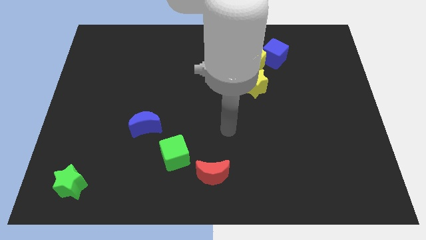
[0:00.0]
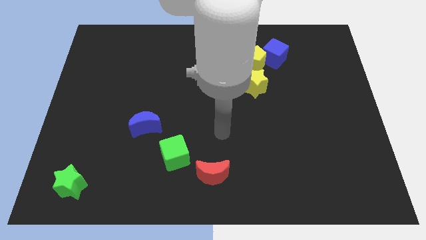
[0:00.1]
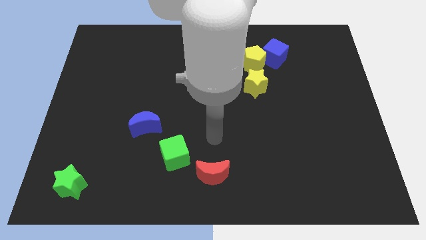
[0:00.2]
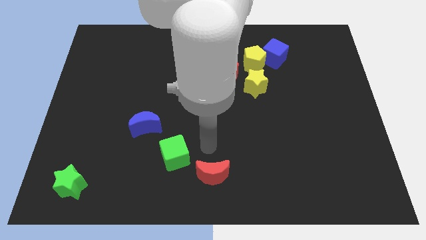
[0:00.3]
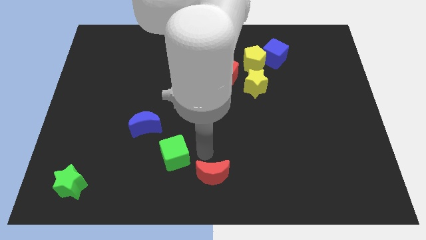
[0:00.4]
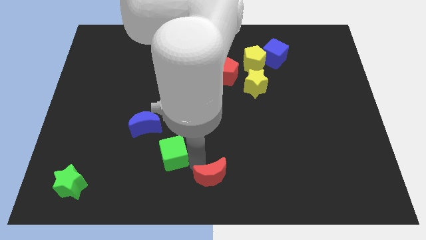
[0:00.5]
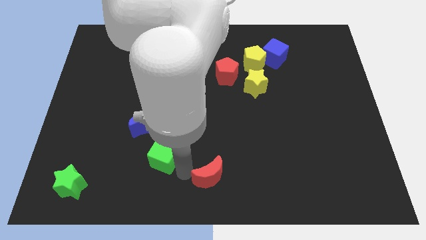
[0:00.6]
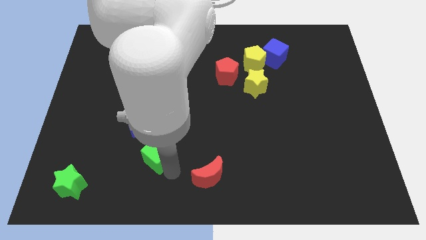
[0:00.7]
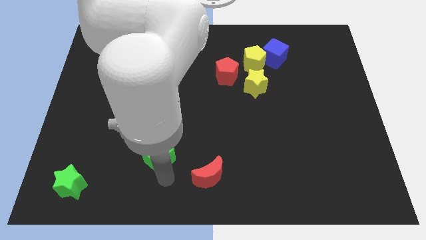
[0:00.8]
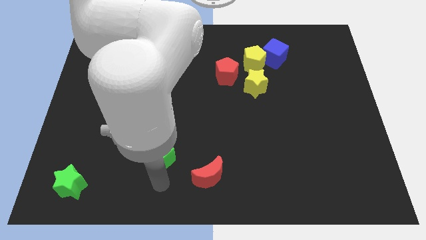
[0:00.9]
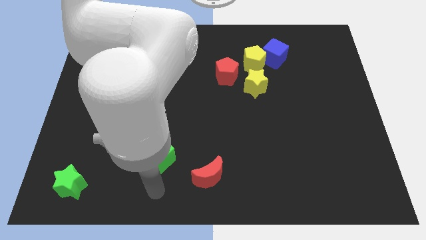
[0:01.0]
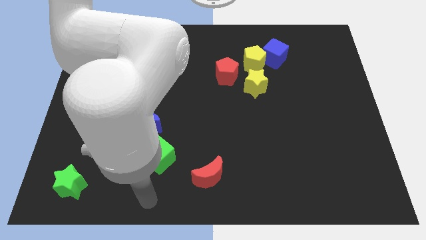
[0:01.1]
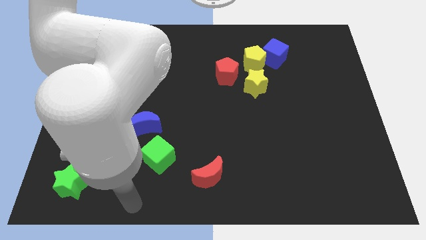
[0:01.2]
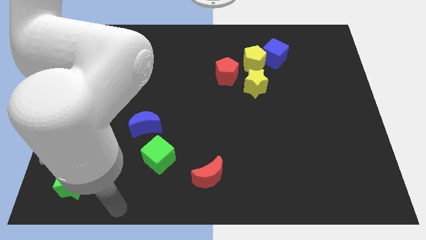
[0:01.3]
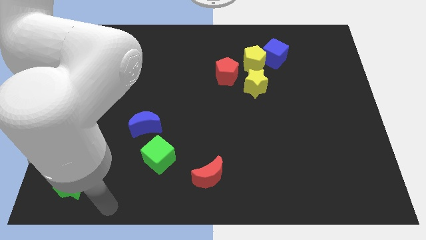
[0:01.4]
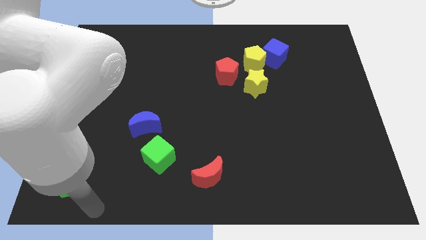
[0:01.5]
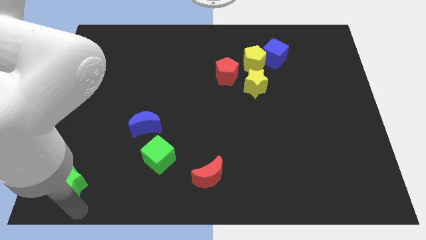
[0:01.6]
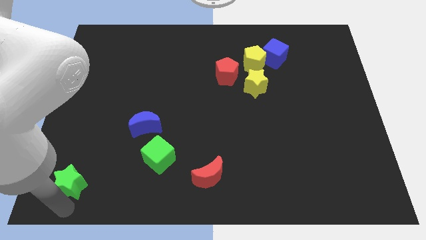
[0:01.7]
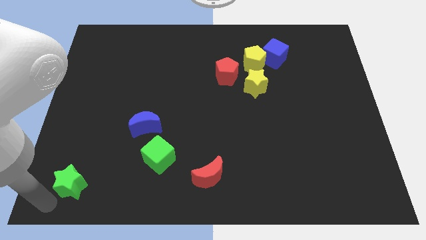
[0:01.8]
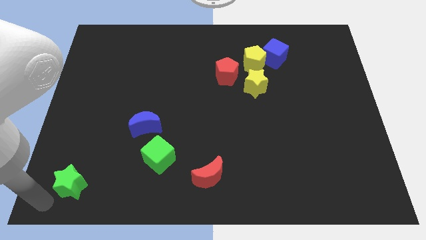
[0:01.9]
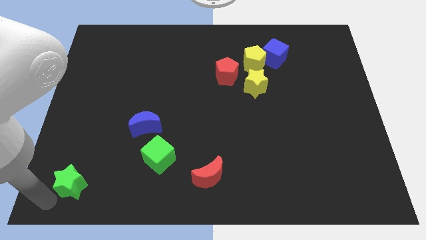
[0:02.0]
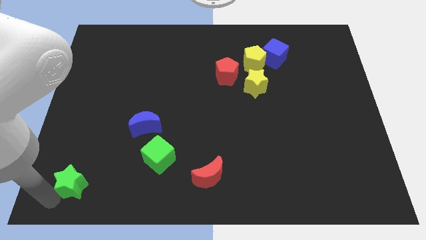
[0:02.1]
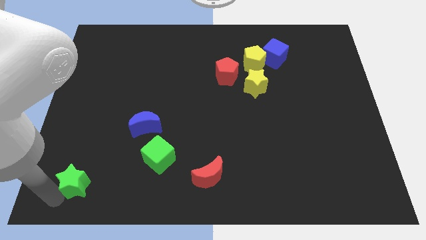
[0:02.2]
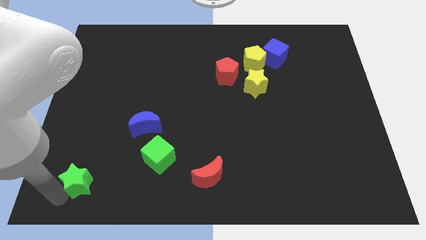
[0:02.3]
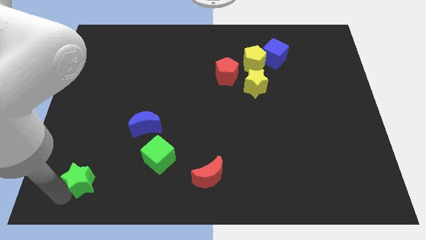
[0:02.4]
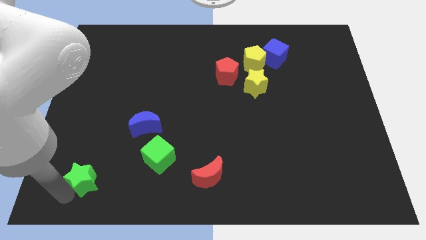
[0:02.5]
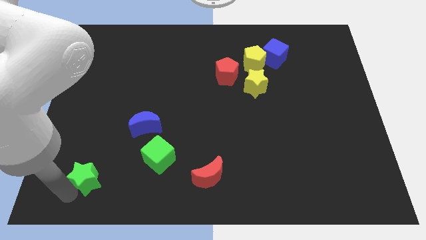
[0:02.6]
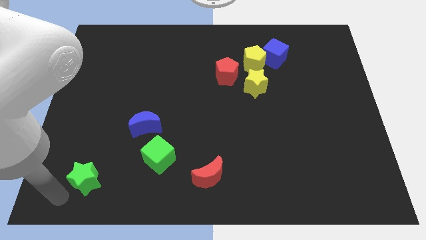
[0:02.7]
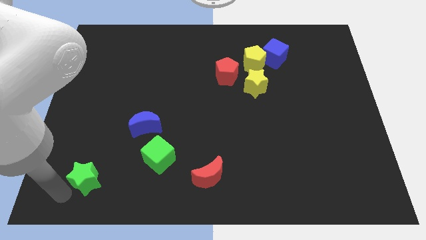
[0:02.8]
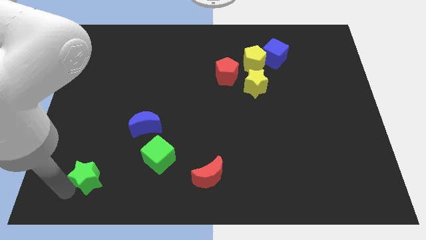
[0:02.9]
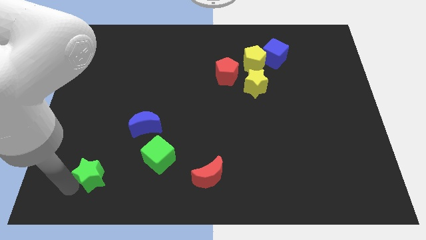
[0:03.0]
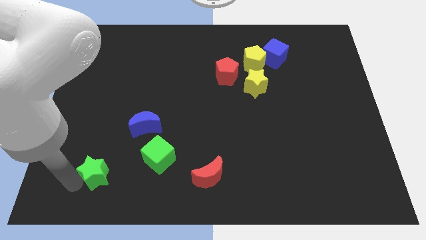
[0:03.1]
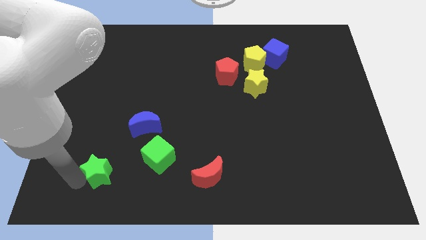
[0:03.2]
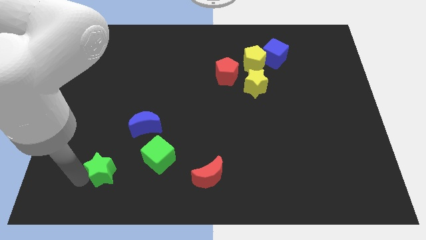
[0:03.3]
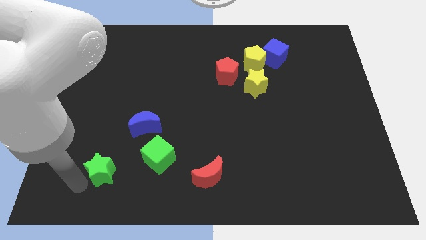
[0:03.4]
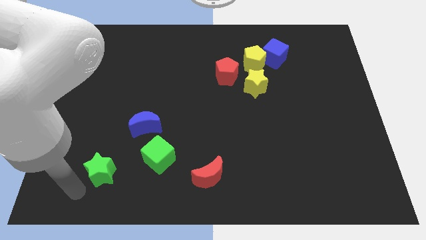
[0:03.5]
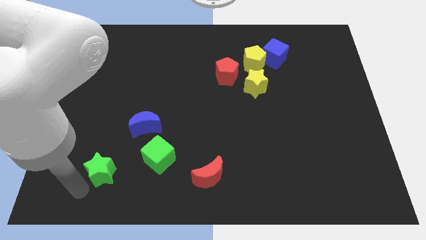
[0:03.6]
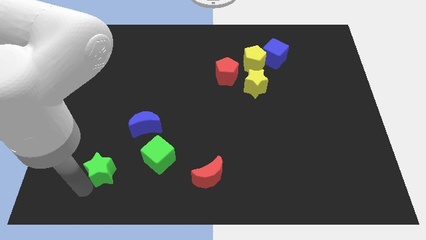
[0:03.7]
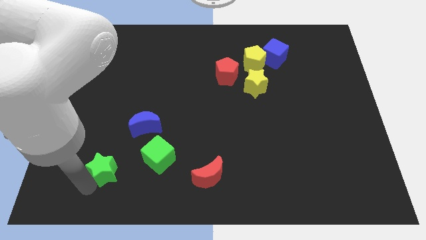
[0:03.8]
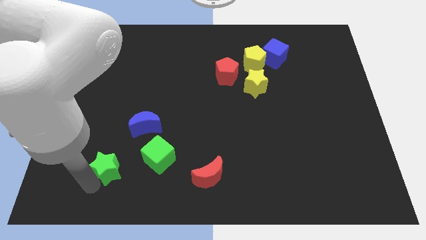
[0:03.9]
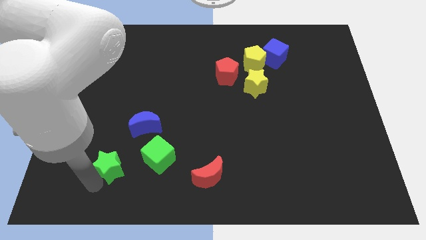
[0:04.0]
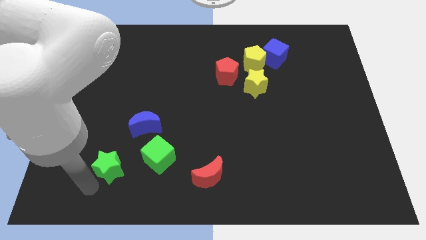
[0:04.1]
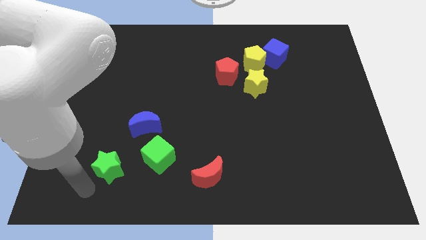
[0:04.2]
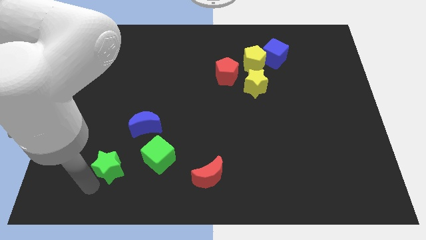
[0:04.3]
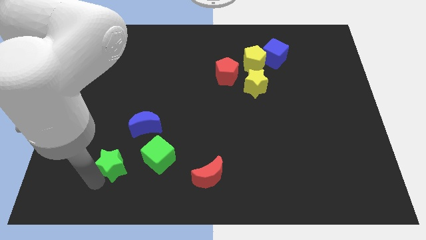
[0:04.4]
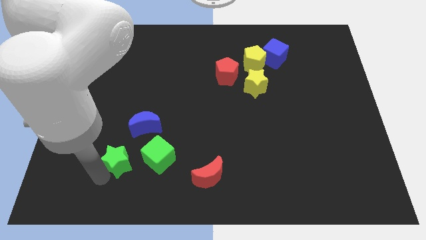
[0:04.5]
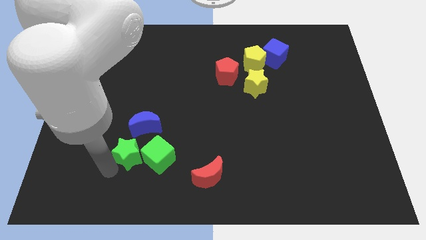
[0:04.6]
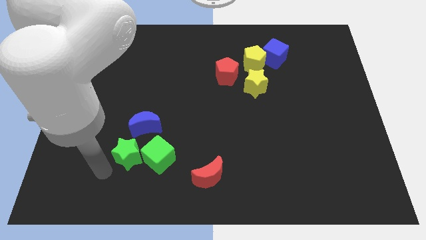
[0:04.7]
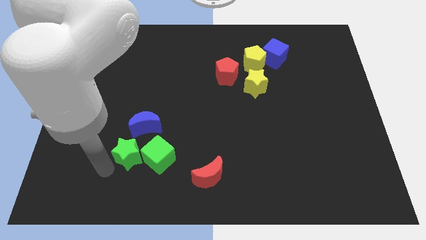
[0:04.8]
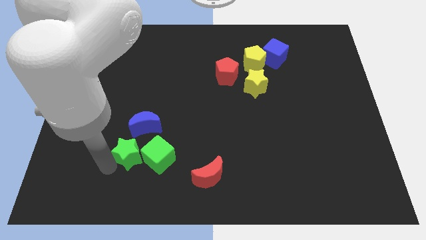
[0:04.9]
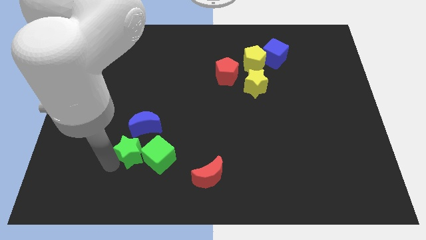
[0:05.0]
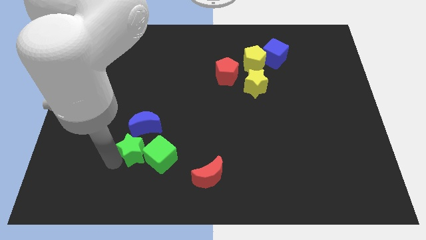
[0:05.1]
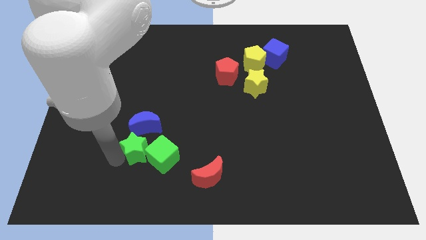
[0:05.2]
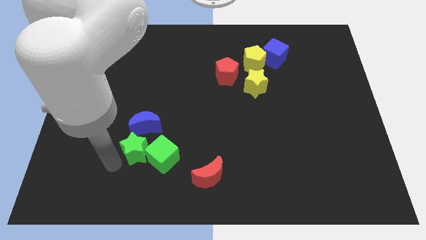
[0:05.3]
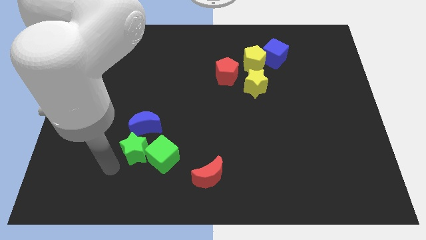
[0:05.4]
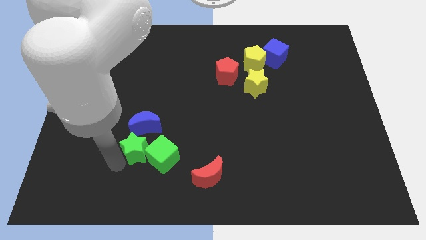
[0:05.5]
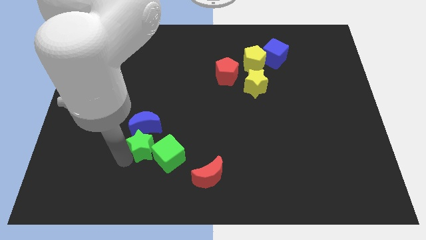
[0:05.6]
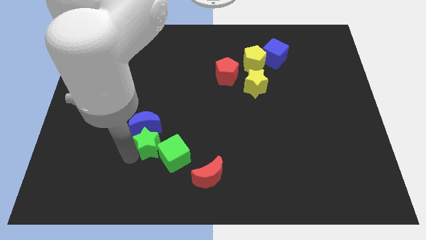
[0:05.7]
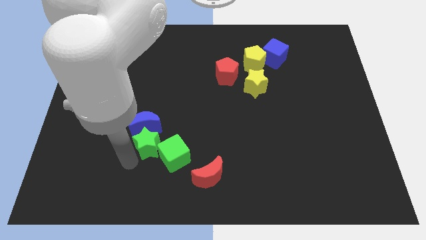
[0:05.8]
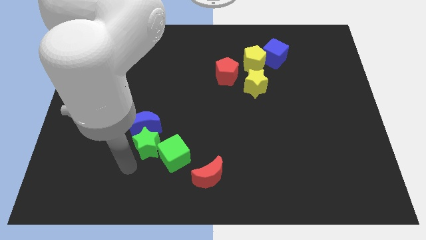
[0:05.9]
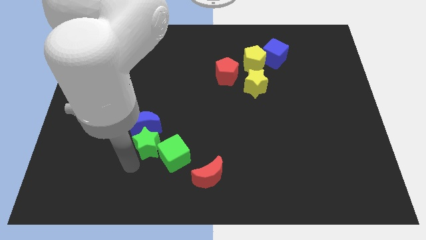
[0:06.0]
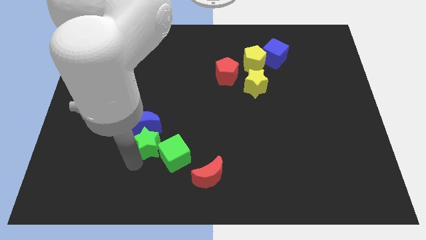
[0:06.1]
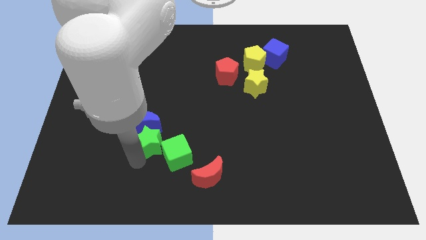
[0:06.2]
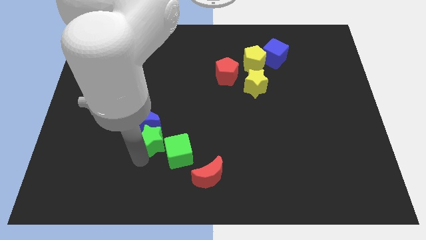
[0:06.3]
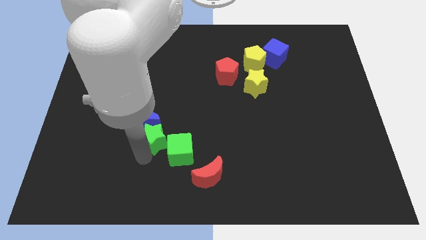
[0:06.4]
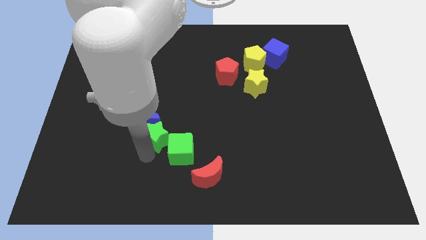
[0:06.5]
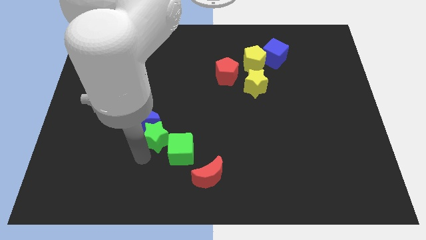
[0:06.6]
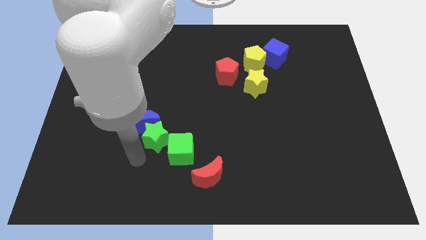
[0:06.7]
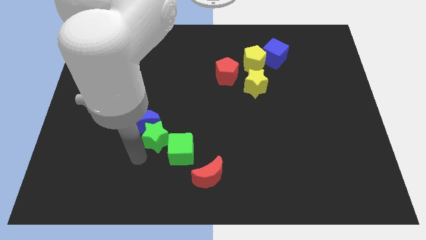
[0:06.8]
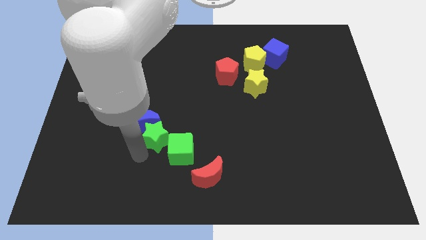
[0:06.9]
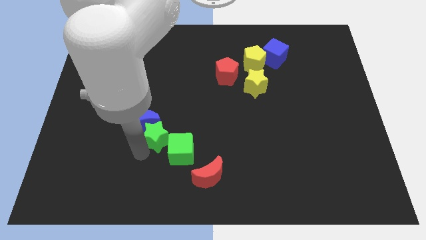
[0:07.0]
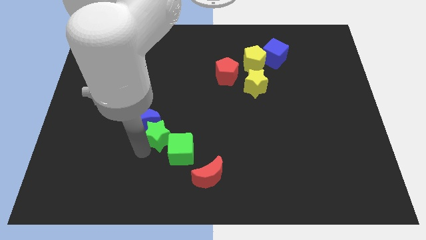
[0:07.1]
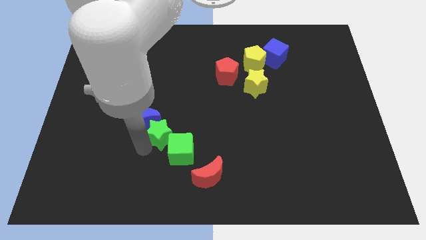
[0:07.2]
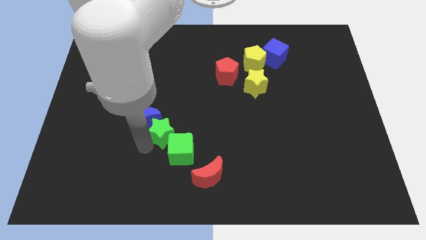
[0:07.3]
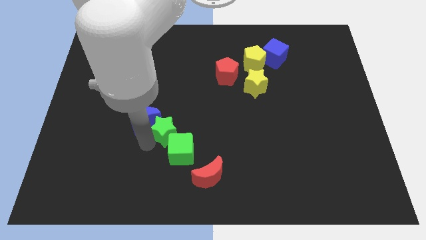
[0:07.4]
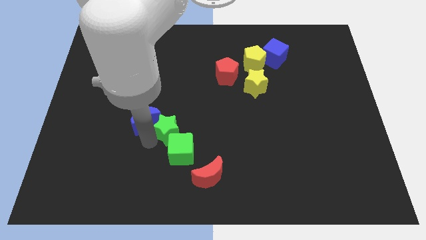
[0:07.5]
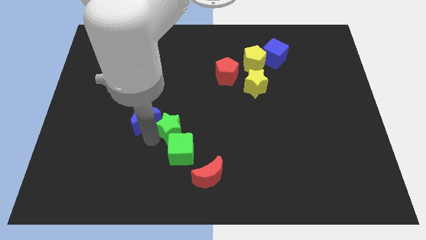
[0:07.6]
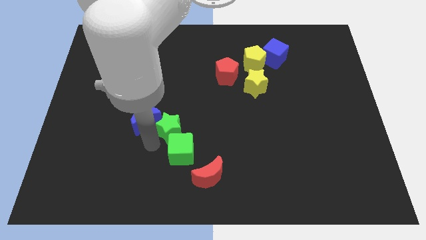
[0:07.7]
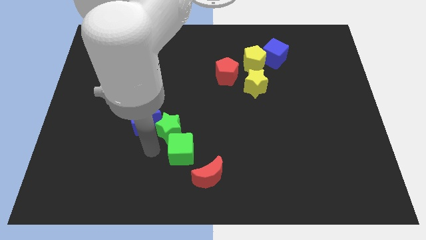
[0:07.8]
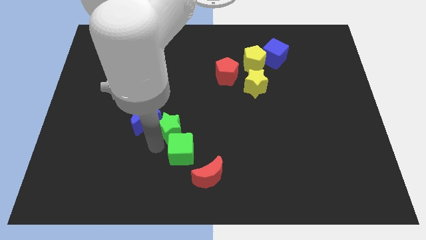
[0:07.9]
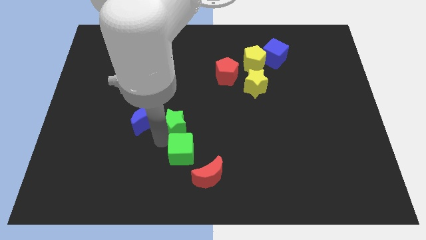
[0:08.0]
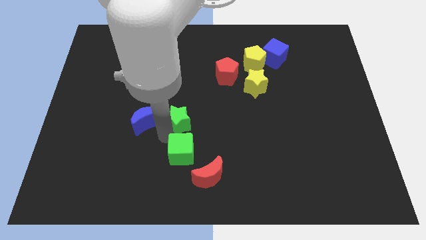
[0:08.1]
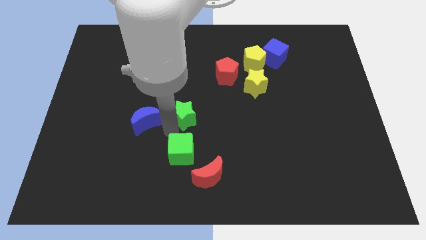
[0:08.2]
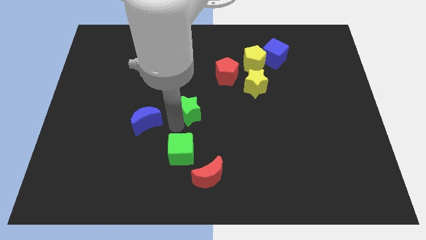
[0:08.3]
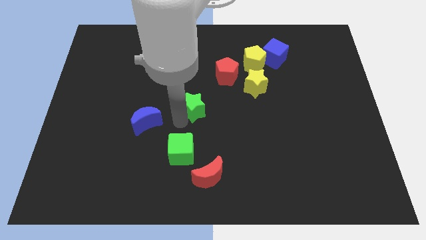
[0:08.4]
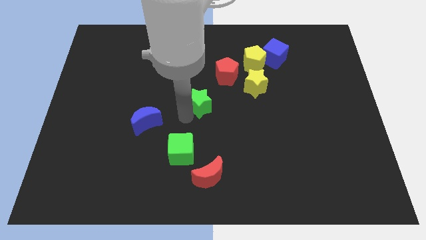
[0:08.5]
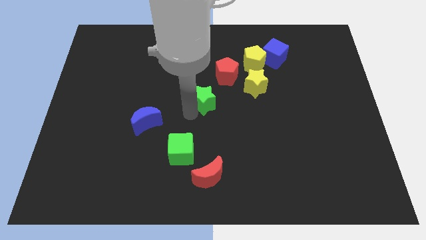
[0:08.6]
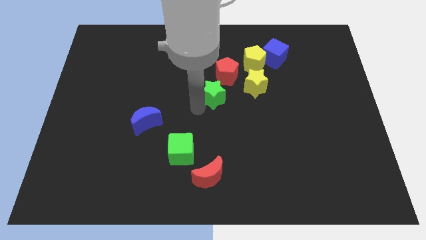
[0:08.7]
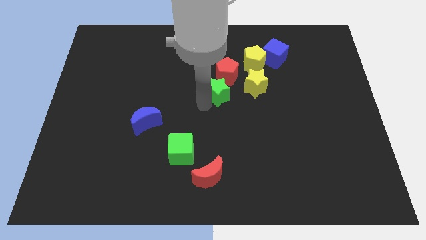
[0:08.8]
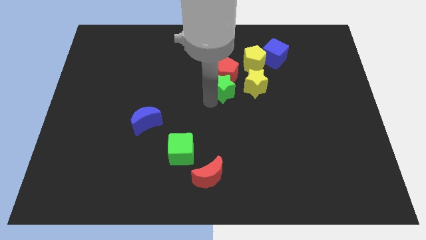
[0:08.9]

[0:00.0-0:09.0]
move the green star next to the red pentagon
